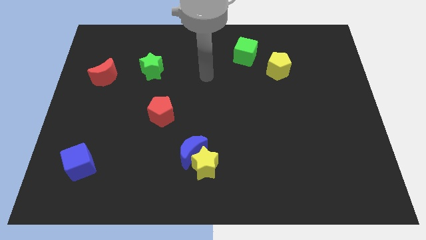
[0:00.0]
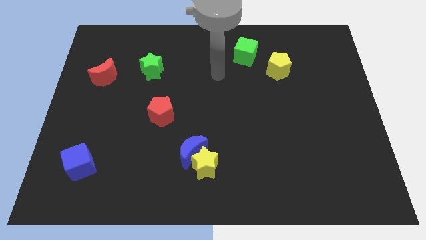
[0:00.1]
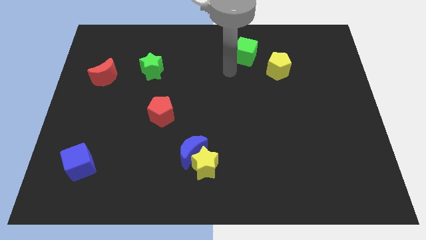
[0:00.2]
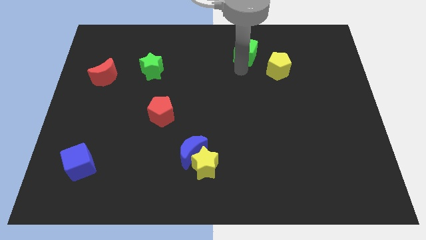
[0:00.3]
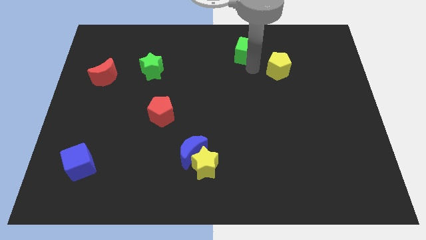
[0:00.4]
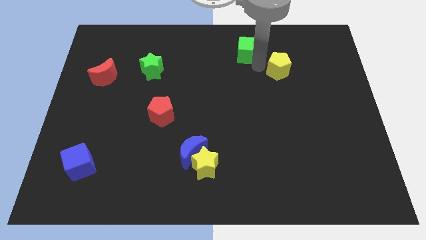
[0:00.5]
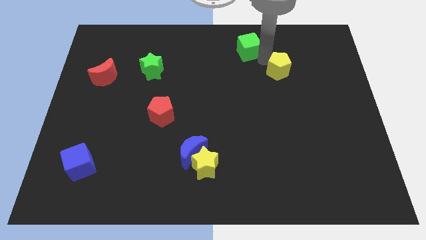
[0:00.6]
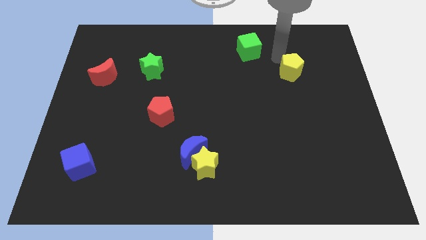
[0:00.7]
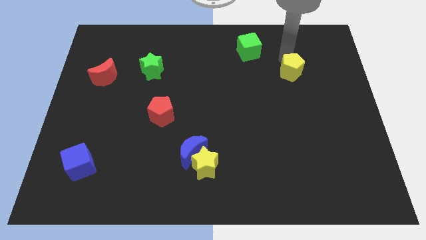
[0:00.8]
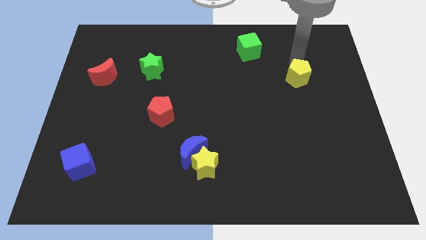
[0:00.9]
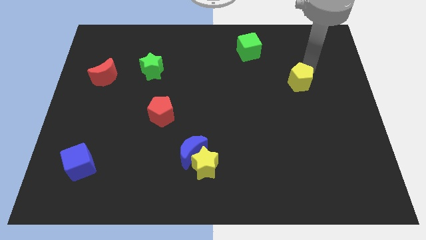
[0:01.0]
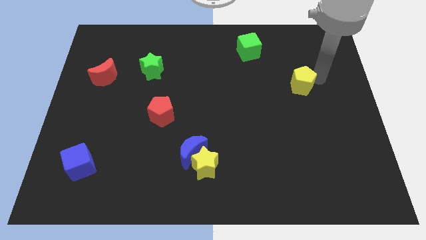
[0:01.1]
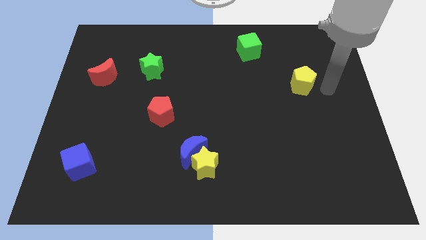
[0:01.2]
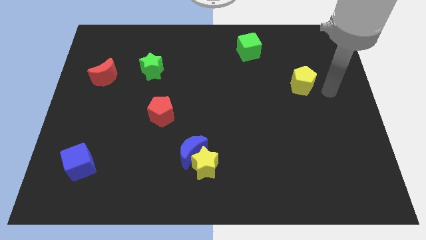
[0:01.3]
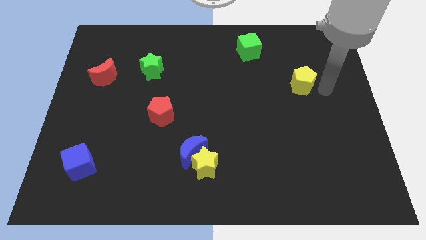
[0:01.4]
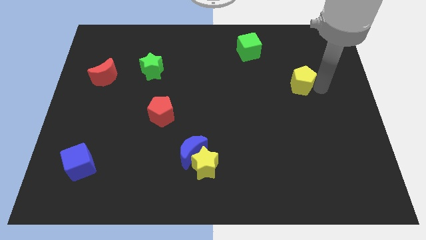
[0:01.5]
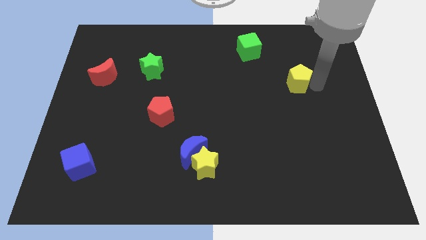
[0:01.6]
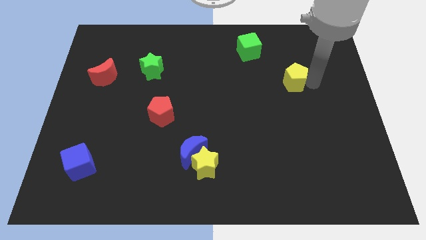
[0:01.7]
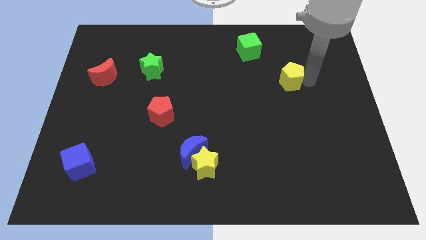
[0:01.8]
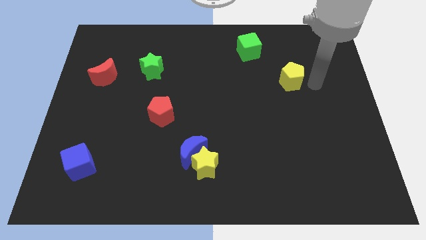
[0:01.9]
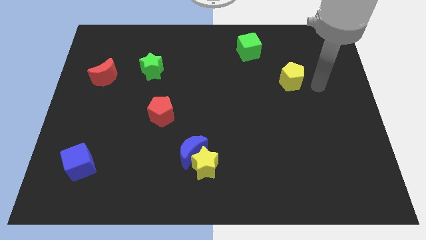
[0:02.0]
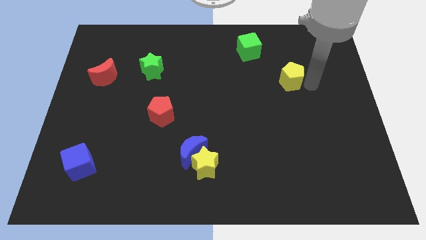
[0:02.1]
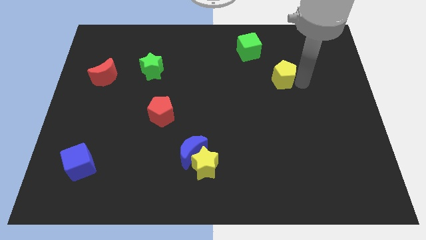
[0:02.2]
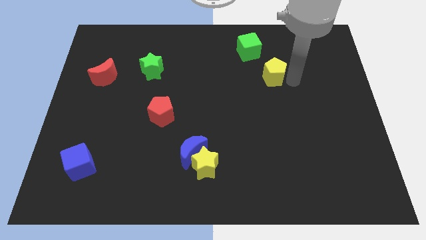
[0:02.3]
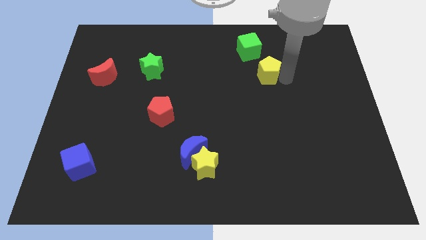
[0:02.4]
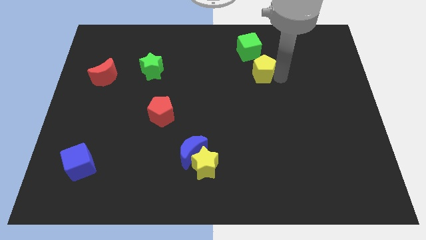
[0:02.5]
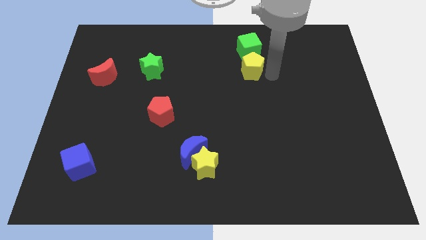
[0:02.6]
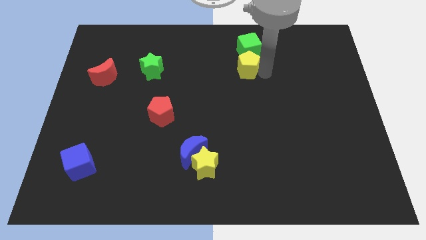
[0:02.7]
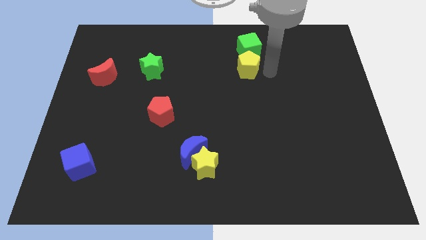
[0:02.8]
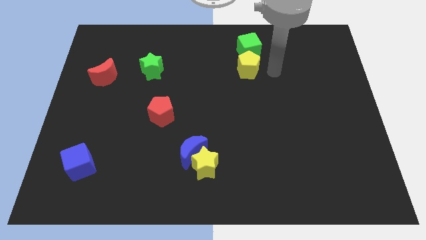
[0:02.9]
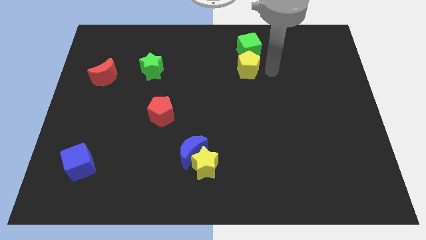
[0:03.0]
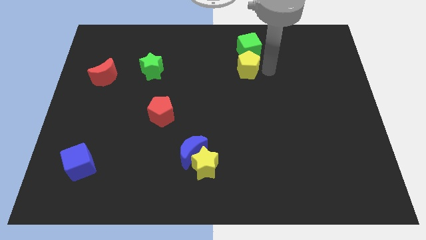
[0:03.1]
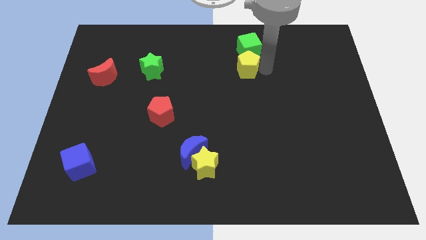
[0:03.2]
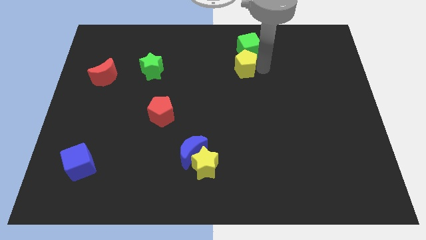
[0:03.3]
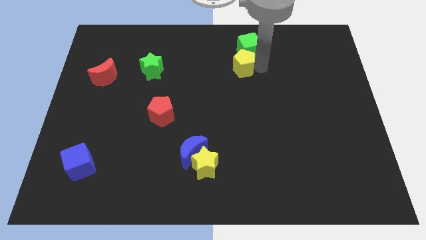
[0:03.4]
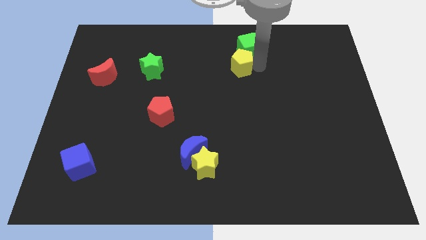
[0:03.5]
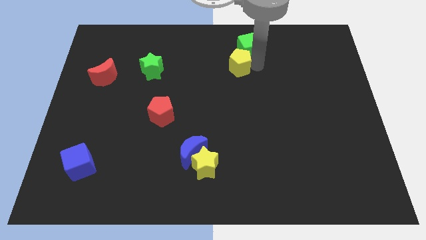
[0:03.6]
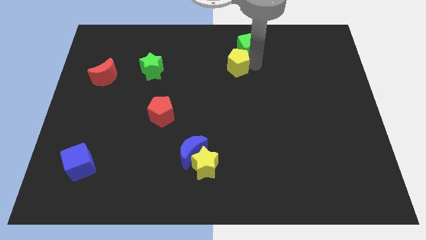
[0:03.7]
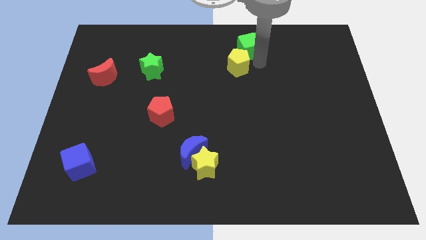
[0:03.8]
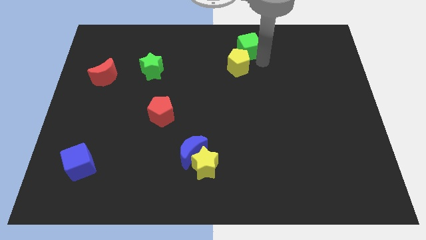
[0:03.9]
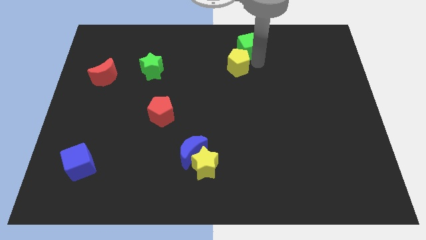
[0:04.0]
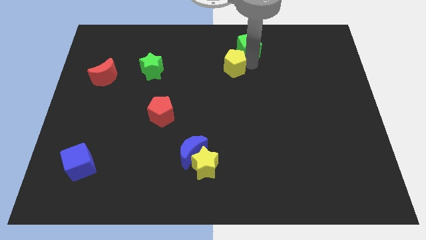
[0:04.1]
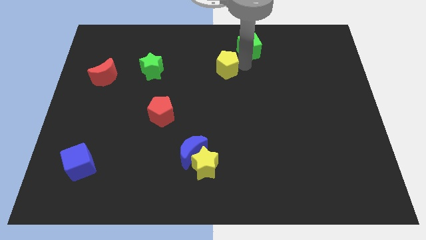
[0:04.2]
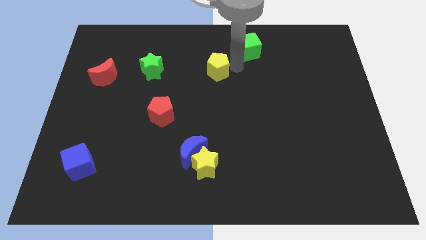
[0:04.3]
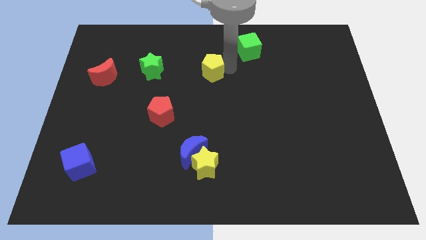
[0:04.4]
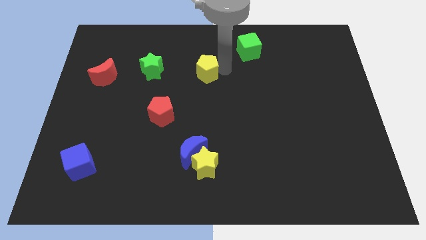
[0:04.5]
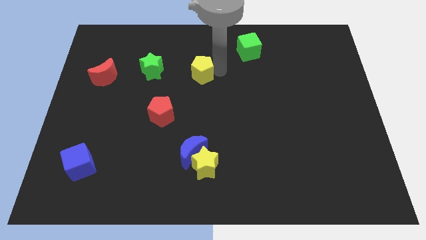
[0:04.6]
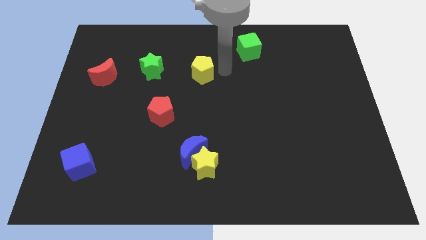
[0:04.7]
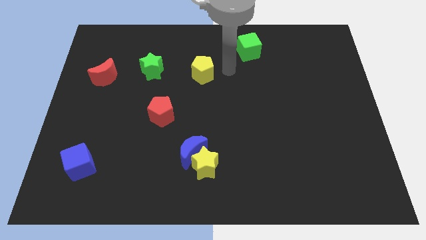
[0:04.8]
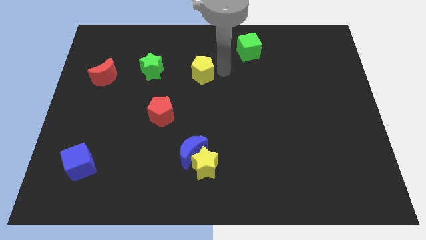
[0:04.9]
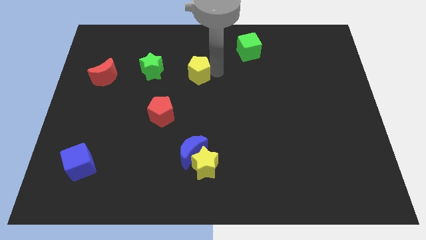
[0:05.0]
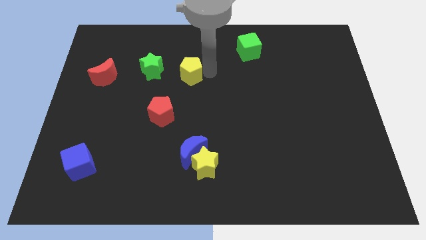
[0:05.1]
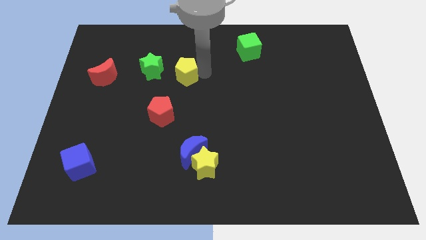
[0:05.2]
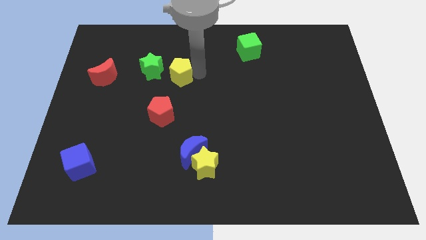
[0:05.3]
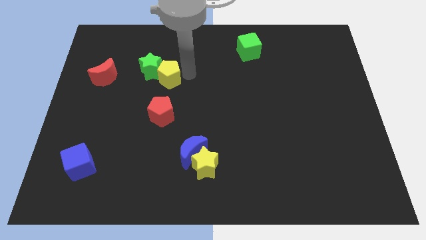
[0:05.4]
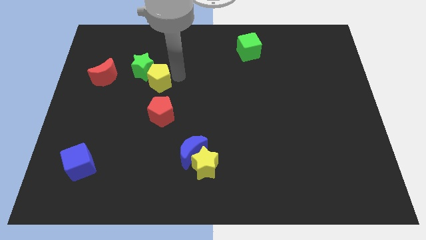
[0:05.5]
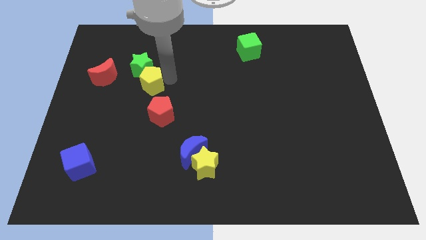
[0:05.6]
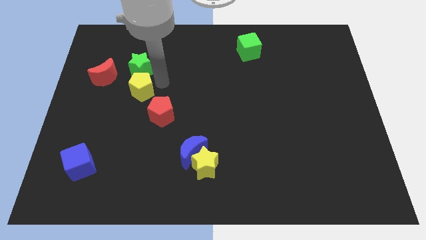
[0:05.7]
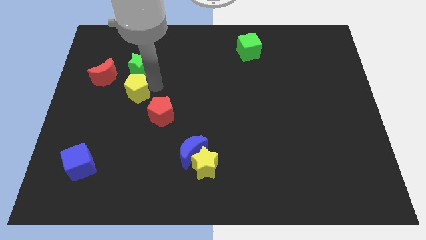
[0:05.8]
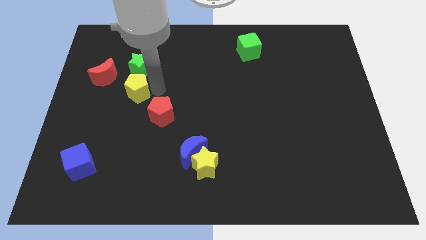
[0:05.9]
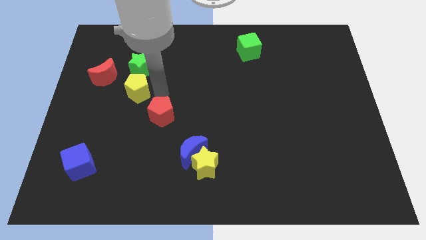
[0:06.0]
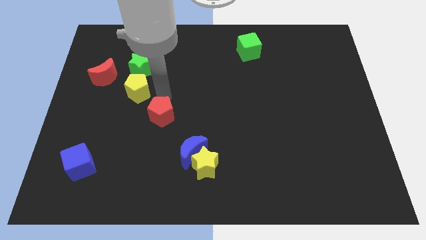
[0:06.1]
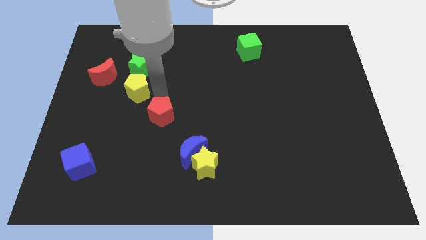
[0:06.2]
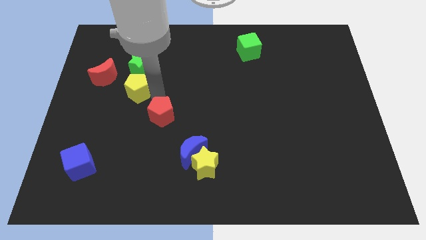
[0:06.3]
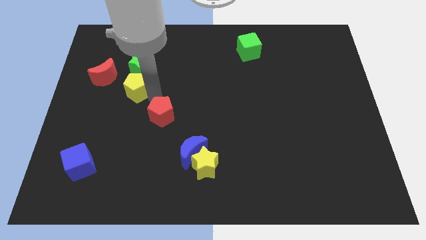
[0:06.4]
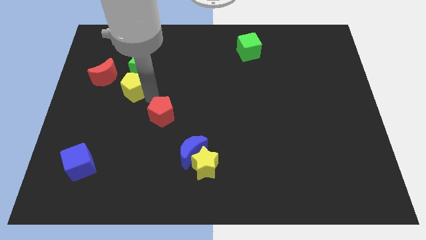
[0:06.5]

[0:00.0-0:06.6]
slide the yellow pentagon to the bottom left of the green star
